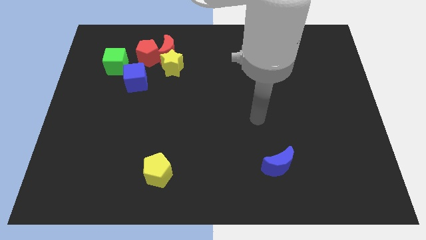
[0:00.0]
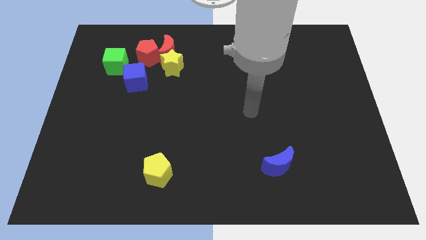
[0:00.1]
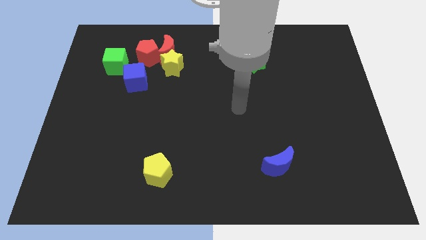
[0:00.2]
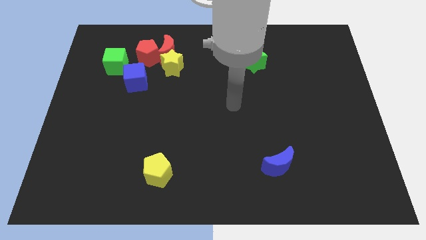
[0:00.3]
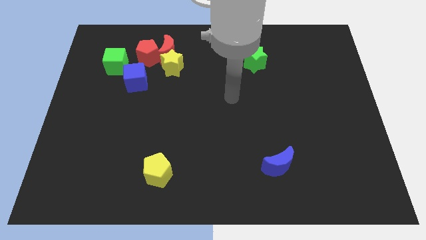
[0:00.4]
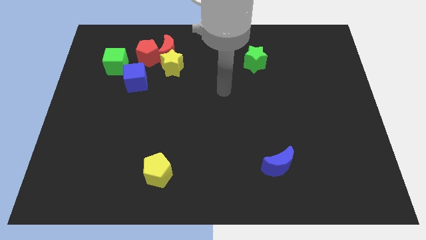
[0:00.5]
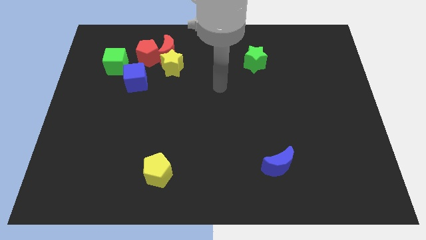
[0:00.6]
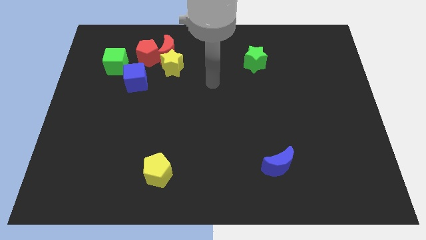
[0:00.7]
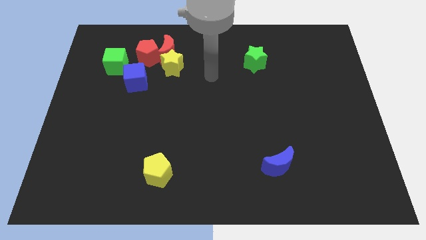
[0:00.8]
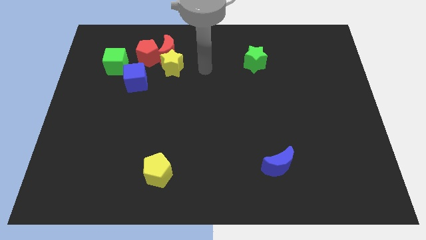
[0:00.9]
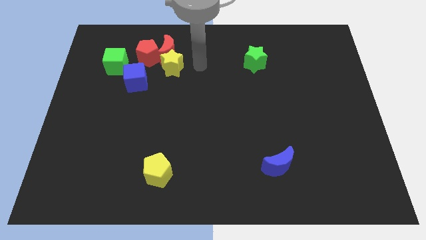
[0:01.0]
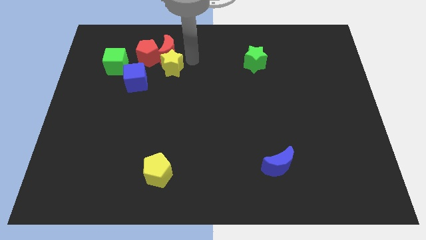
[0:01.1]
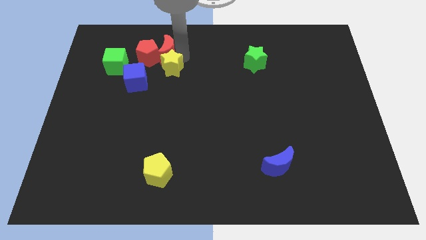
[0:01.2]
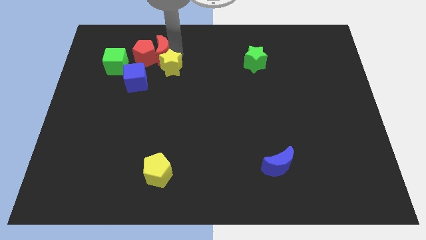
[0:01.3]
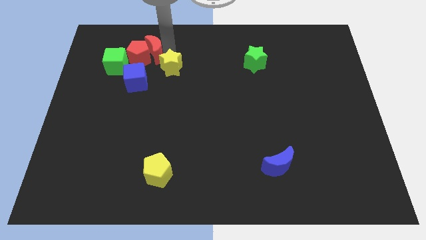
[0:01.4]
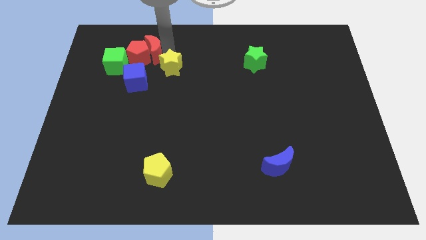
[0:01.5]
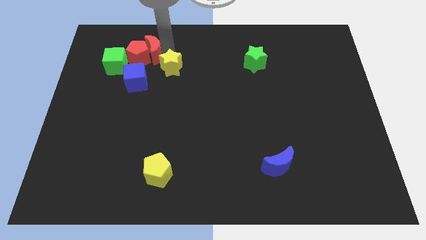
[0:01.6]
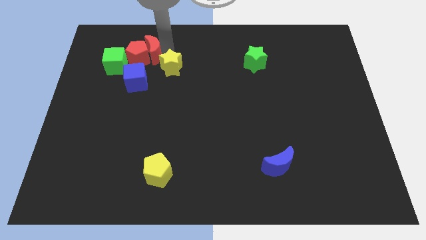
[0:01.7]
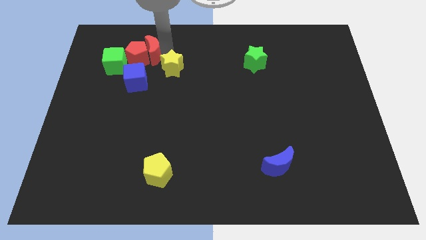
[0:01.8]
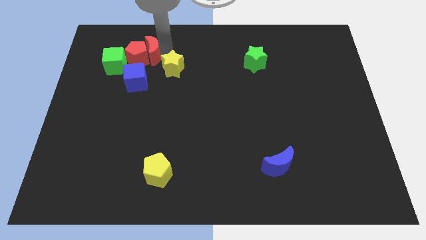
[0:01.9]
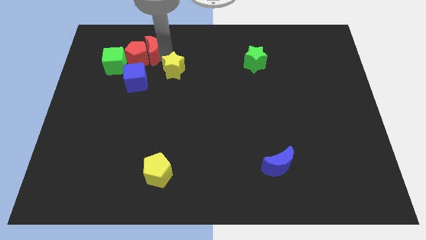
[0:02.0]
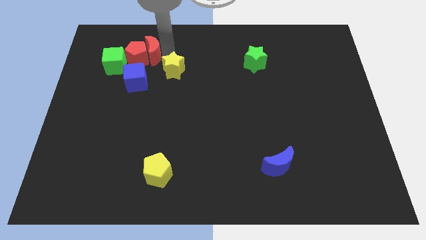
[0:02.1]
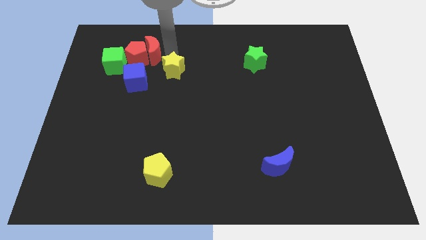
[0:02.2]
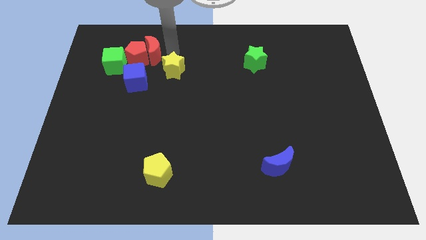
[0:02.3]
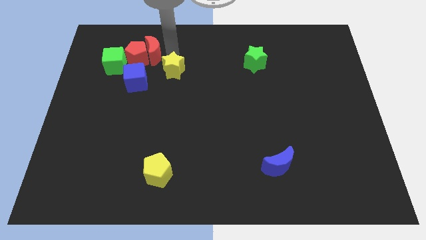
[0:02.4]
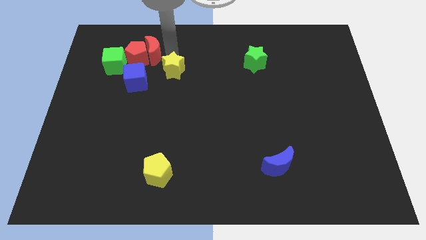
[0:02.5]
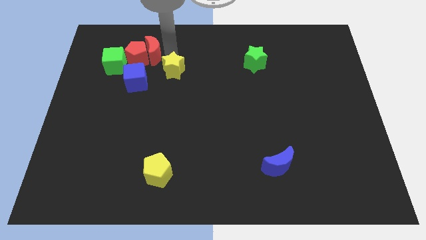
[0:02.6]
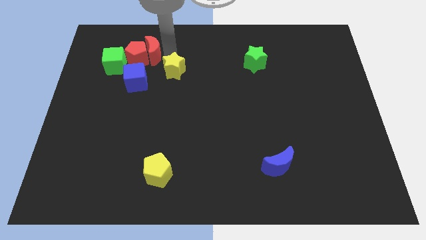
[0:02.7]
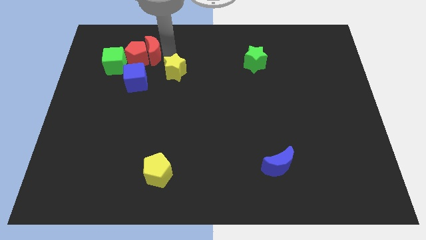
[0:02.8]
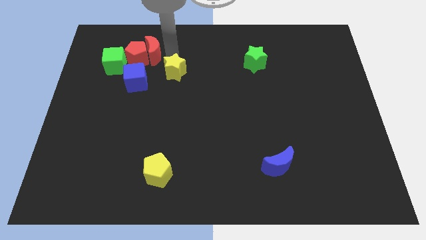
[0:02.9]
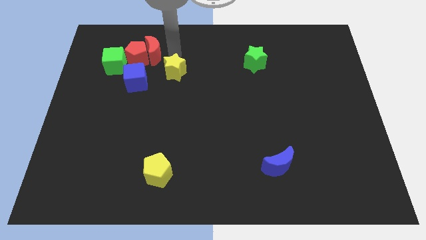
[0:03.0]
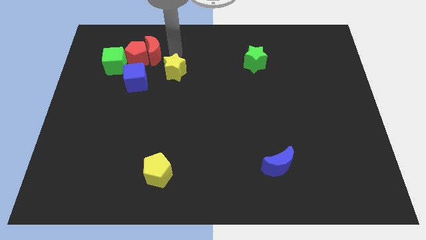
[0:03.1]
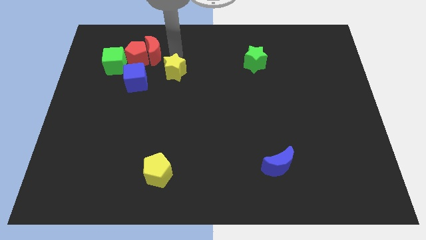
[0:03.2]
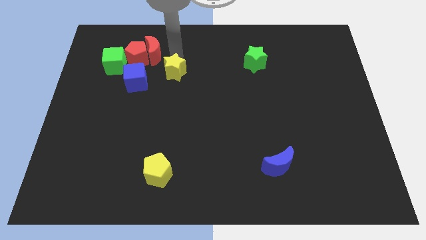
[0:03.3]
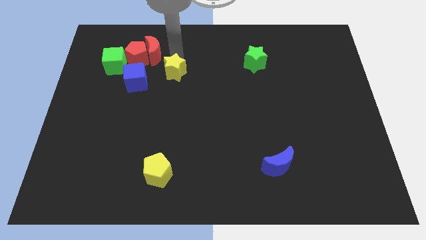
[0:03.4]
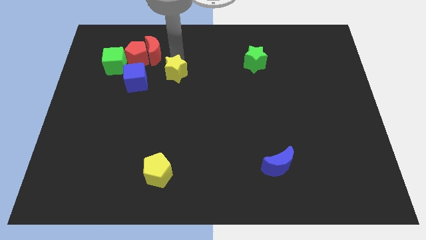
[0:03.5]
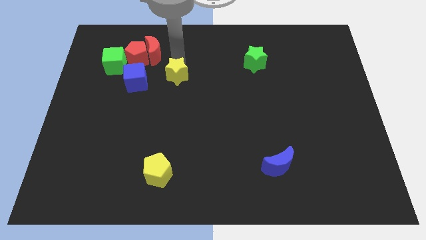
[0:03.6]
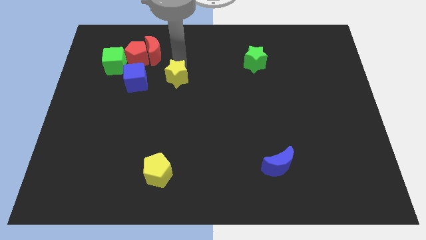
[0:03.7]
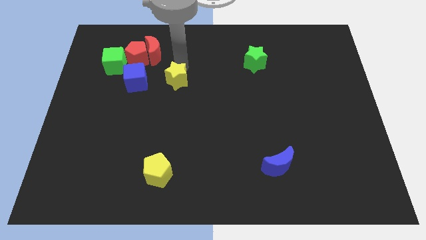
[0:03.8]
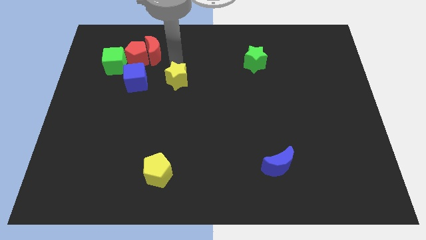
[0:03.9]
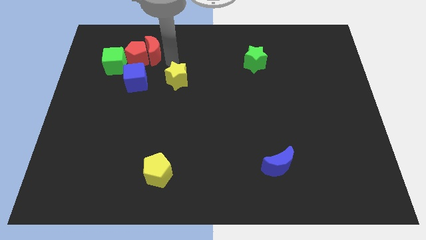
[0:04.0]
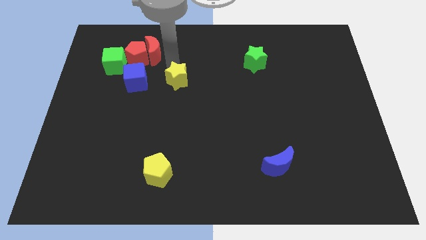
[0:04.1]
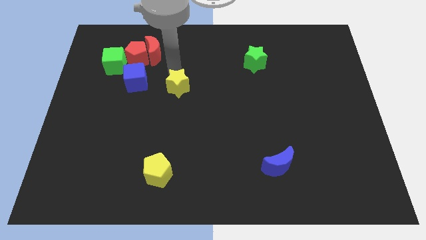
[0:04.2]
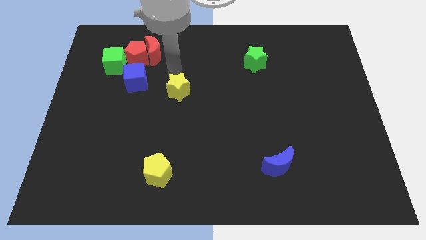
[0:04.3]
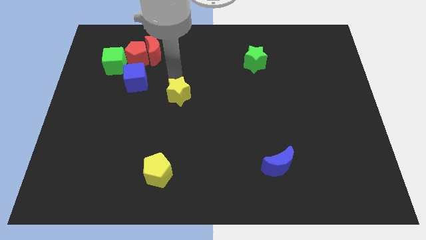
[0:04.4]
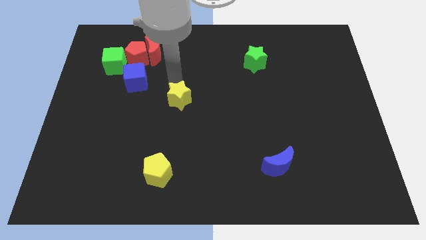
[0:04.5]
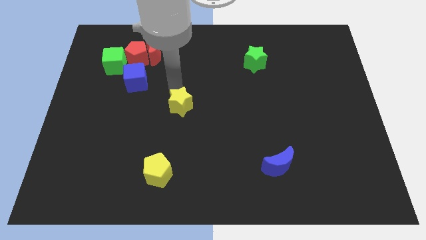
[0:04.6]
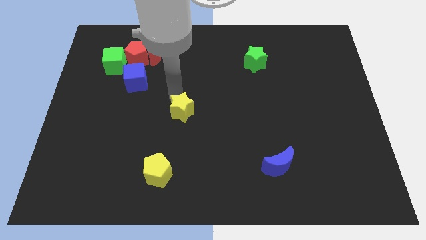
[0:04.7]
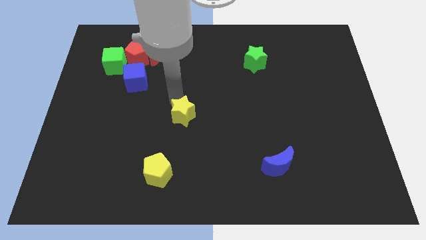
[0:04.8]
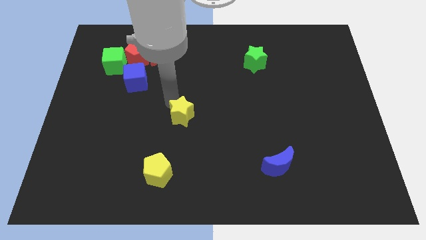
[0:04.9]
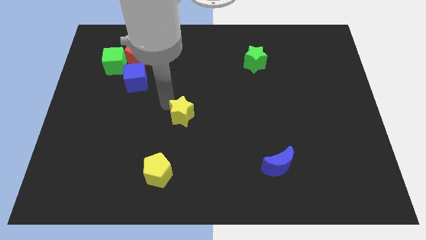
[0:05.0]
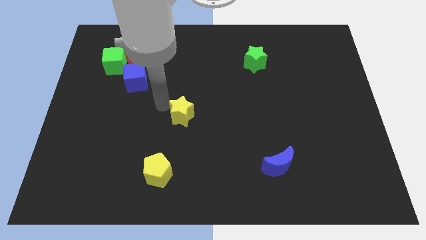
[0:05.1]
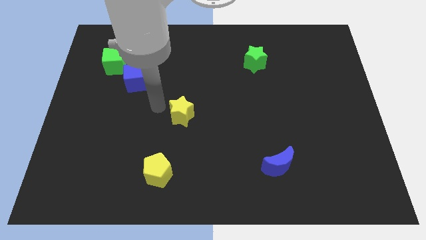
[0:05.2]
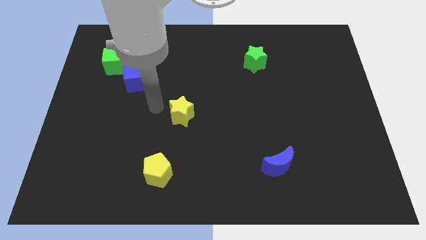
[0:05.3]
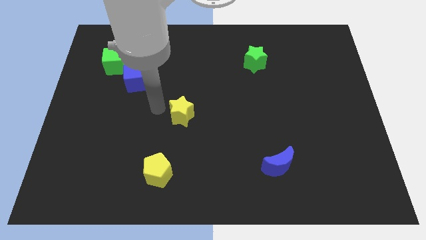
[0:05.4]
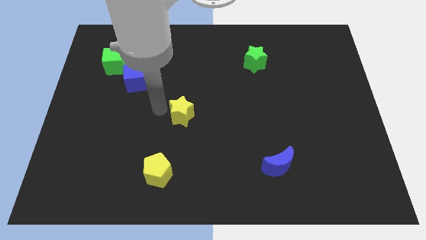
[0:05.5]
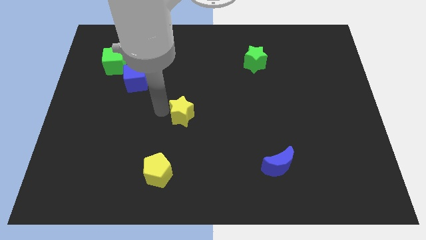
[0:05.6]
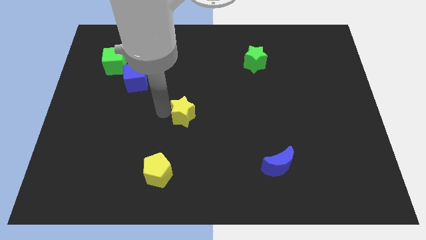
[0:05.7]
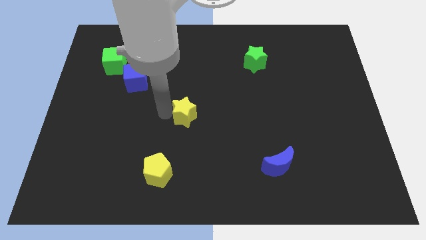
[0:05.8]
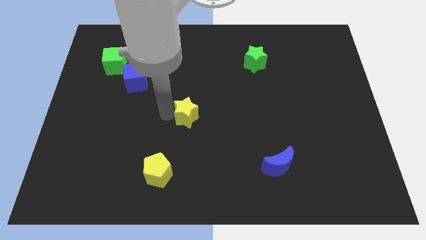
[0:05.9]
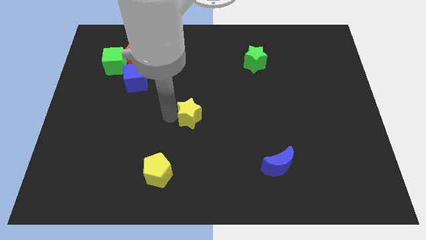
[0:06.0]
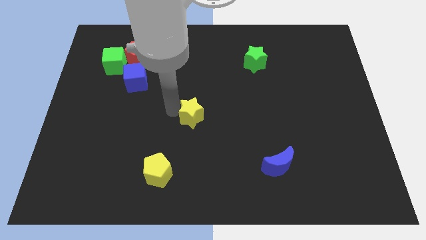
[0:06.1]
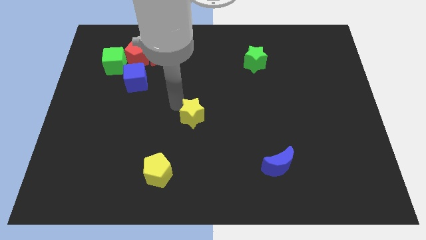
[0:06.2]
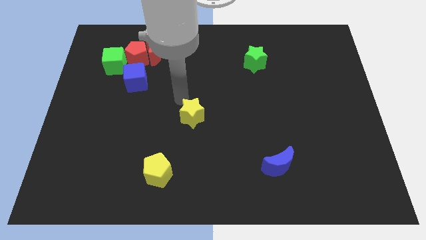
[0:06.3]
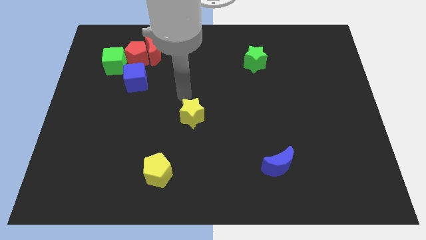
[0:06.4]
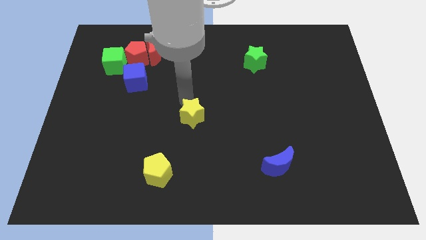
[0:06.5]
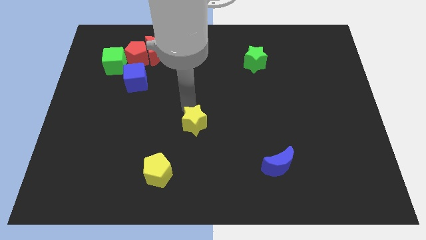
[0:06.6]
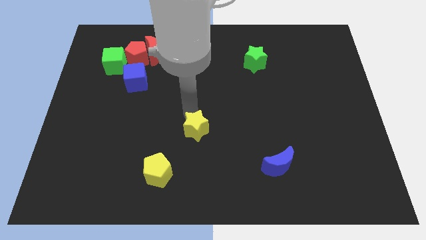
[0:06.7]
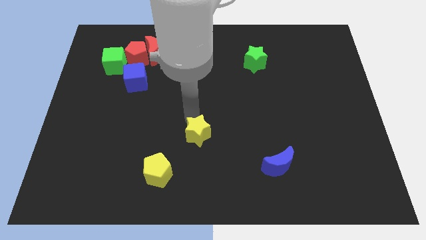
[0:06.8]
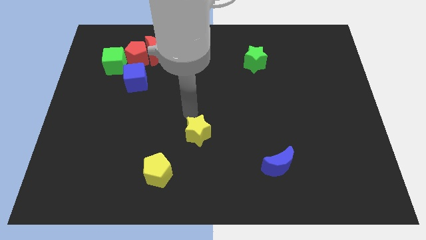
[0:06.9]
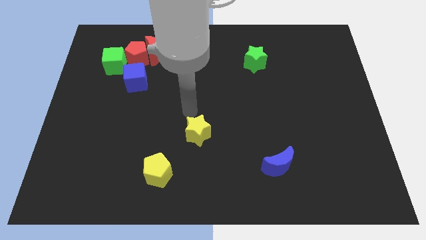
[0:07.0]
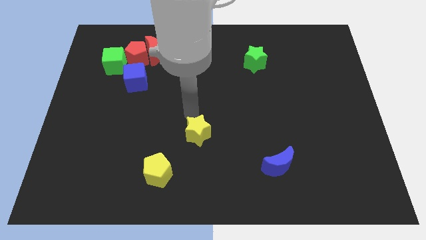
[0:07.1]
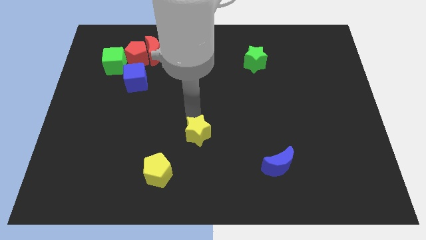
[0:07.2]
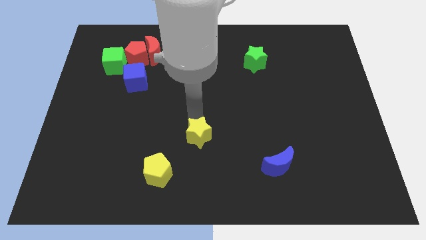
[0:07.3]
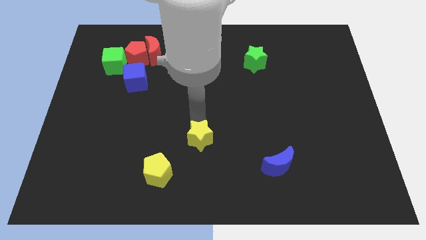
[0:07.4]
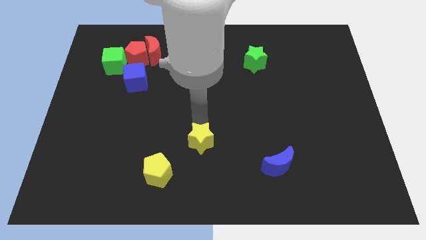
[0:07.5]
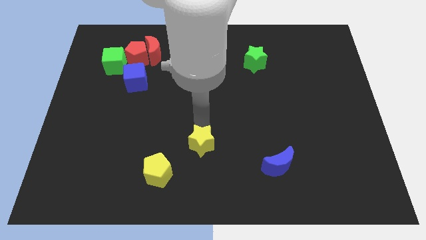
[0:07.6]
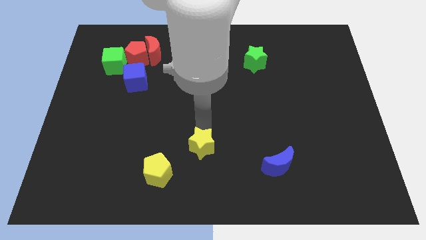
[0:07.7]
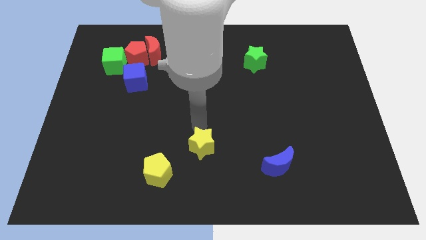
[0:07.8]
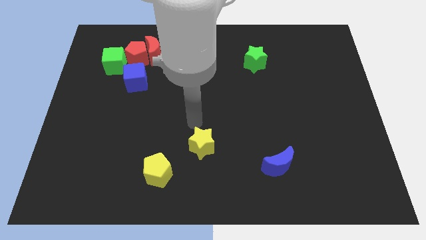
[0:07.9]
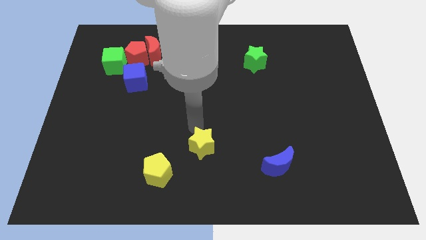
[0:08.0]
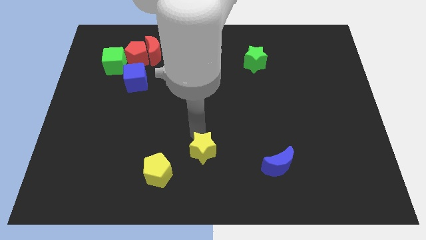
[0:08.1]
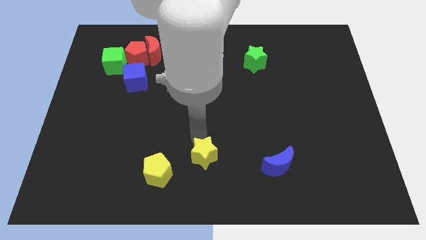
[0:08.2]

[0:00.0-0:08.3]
put the yellow star to the bottom side
